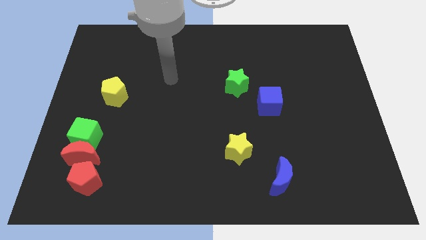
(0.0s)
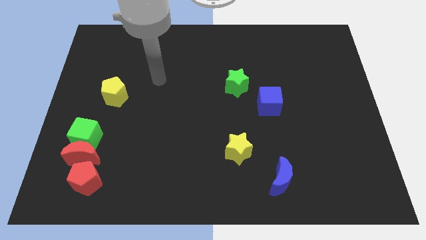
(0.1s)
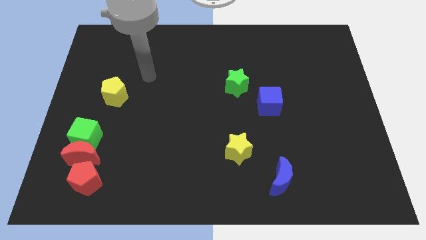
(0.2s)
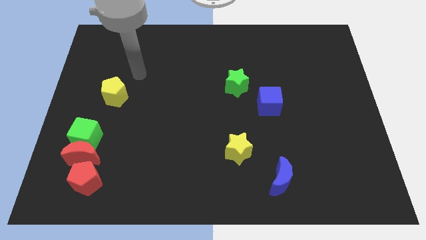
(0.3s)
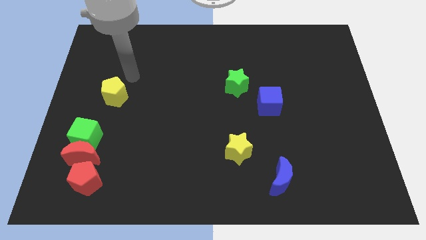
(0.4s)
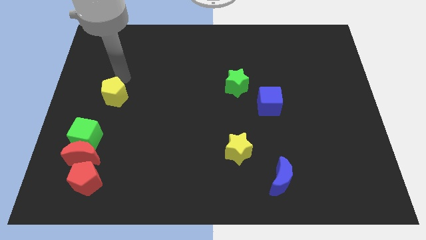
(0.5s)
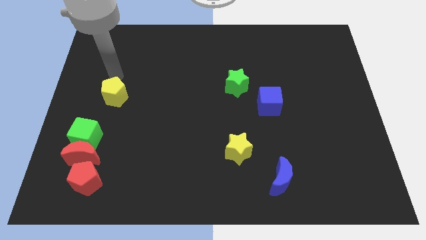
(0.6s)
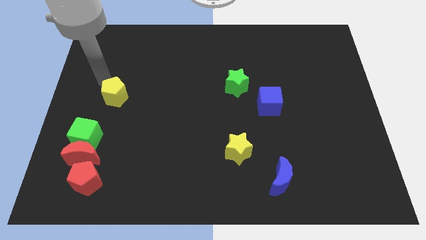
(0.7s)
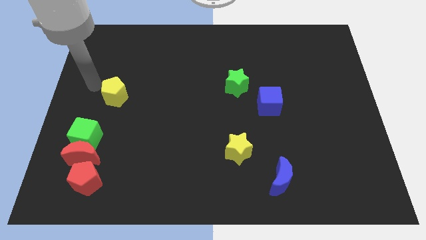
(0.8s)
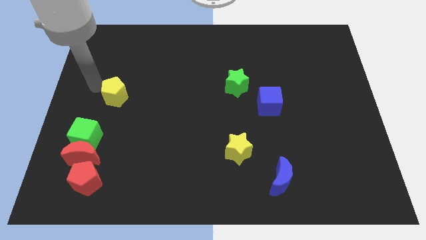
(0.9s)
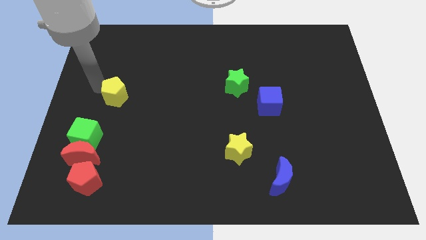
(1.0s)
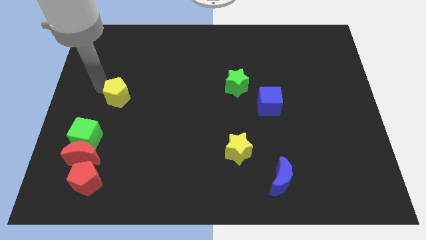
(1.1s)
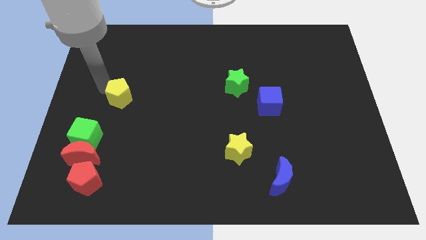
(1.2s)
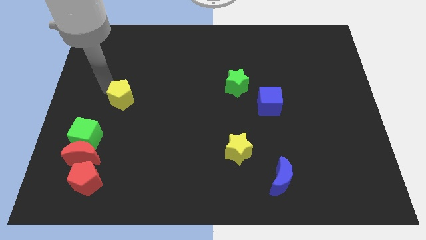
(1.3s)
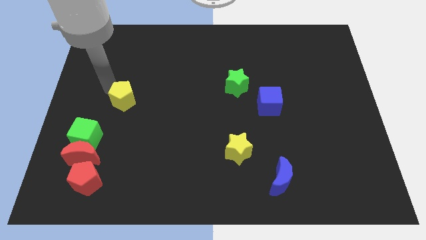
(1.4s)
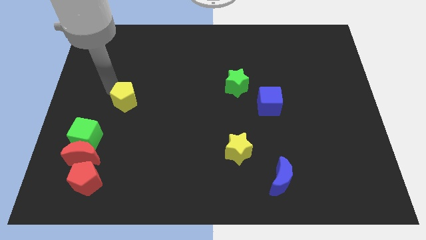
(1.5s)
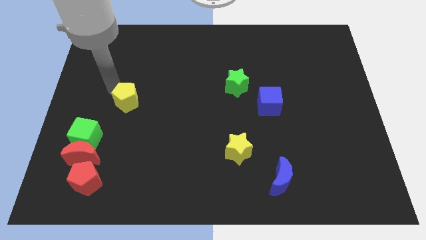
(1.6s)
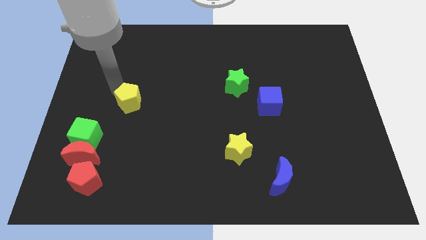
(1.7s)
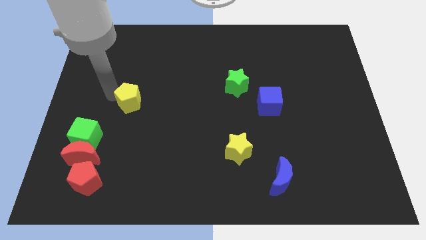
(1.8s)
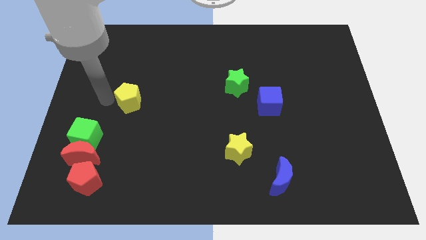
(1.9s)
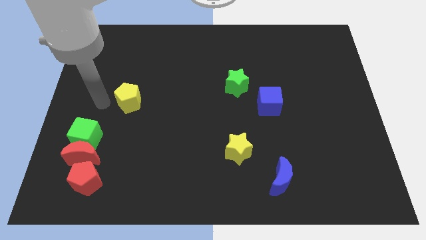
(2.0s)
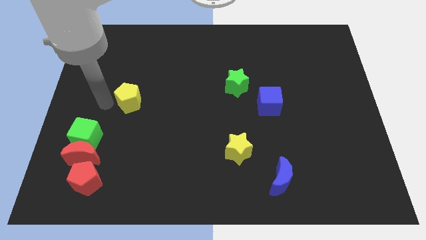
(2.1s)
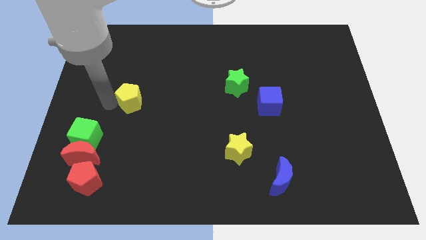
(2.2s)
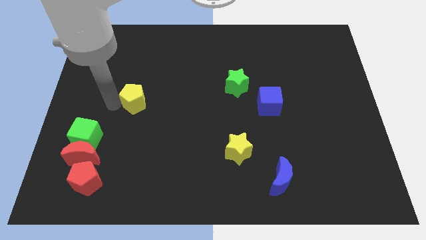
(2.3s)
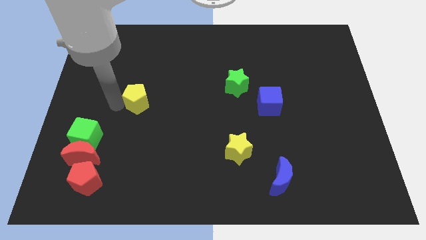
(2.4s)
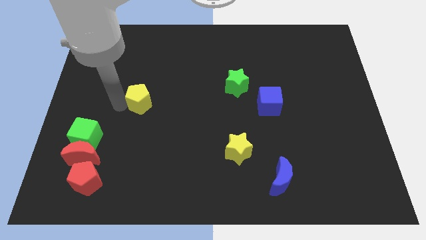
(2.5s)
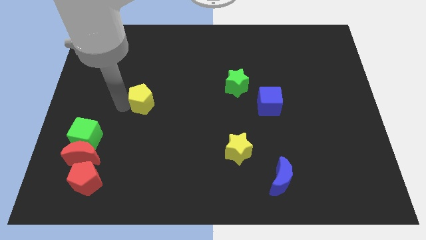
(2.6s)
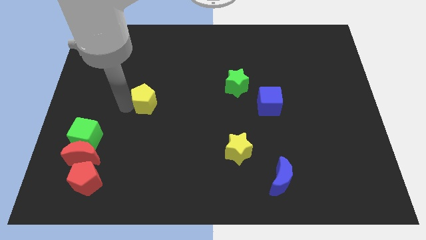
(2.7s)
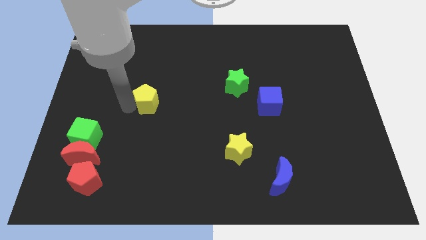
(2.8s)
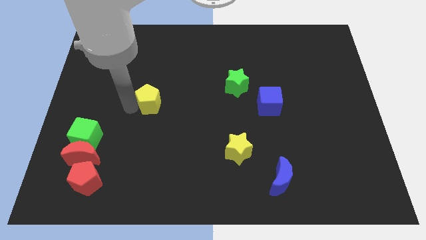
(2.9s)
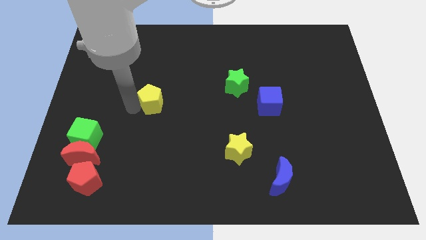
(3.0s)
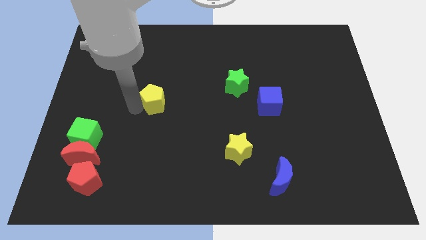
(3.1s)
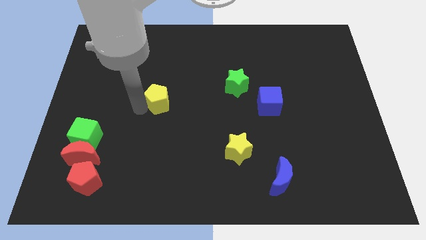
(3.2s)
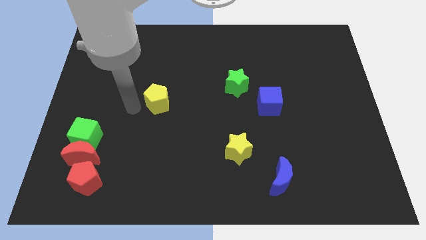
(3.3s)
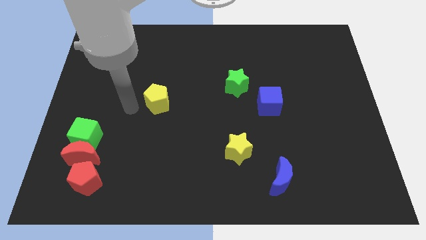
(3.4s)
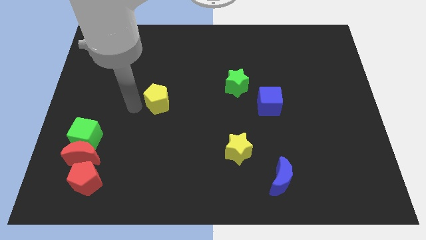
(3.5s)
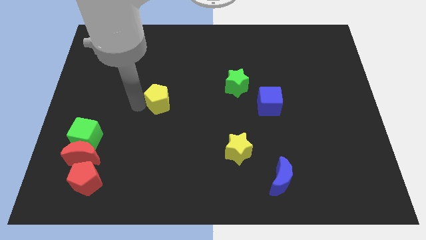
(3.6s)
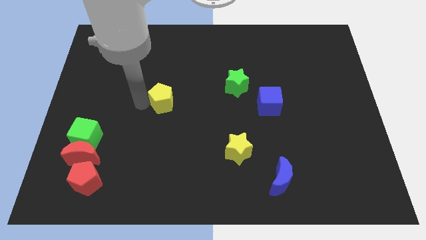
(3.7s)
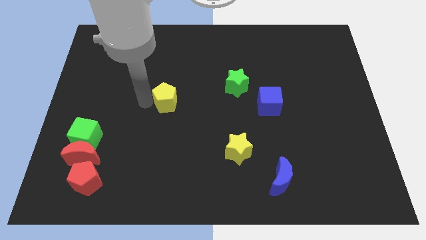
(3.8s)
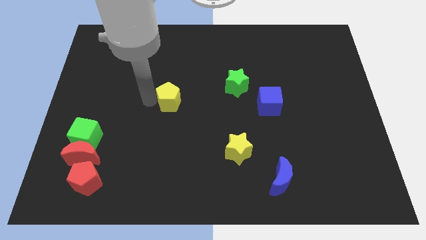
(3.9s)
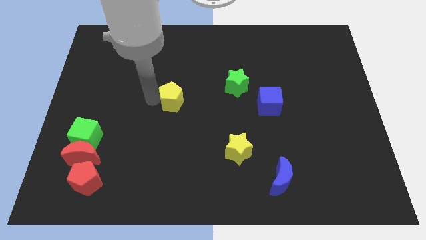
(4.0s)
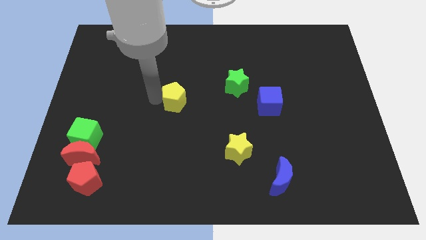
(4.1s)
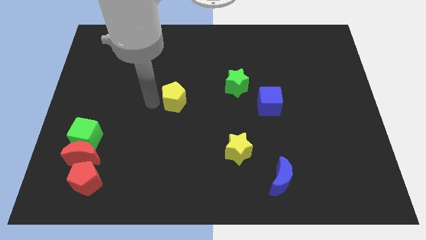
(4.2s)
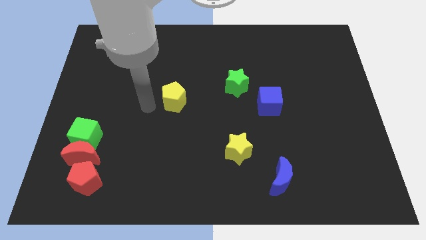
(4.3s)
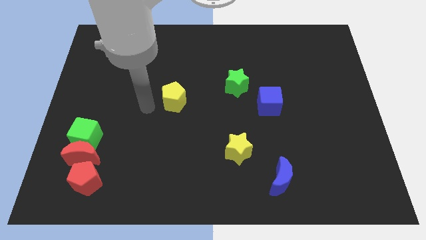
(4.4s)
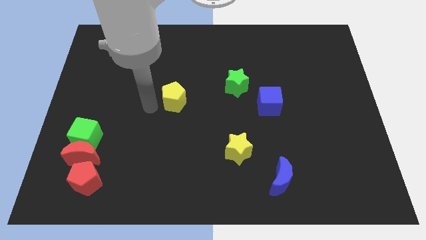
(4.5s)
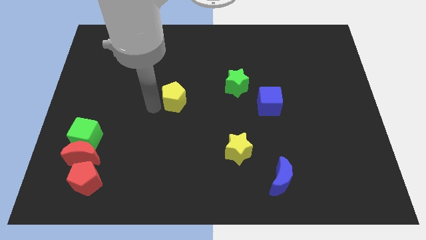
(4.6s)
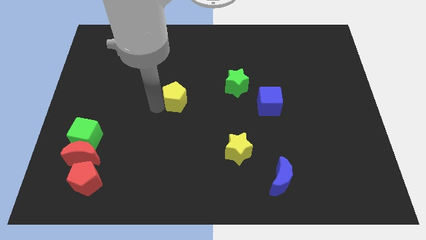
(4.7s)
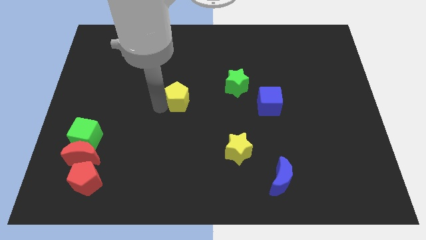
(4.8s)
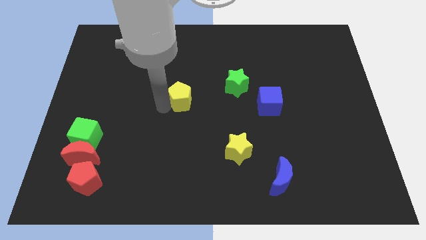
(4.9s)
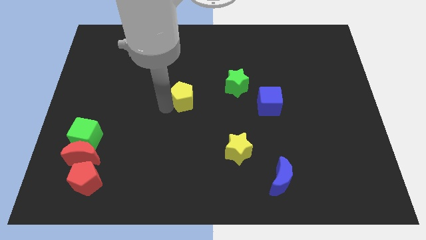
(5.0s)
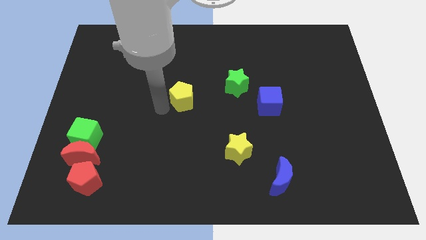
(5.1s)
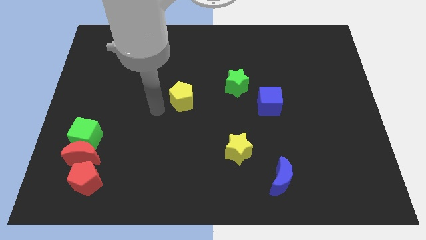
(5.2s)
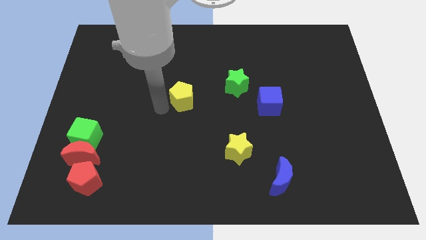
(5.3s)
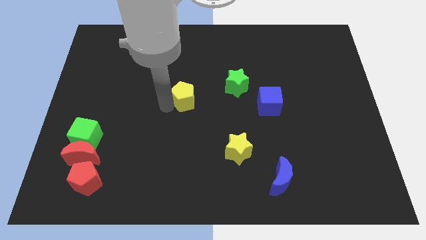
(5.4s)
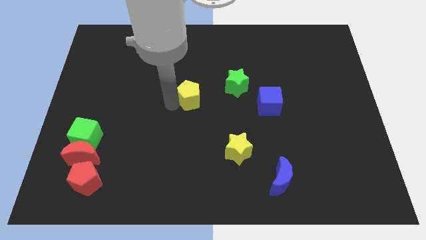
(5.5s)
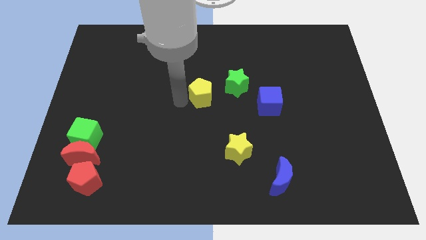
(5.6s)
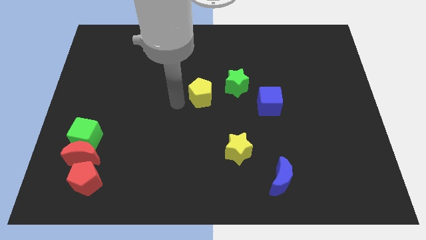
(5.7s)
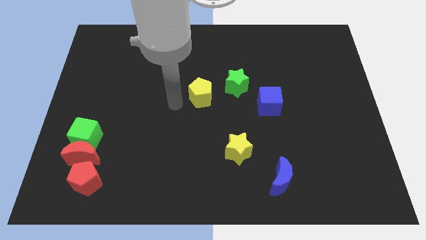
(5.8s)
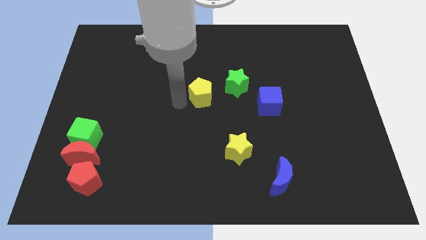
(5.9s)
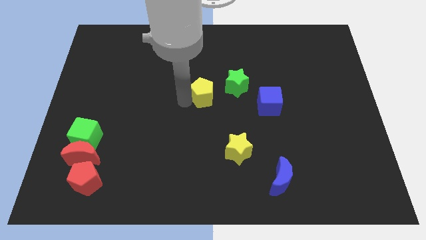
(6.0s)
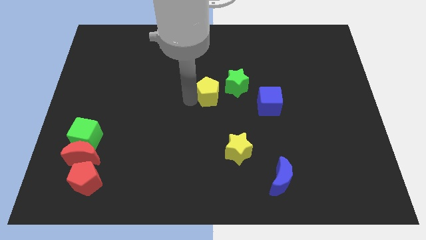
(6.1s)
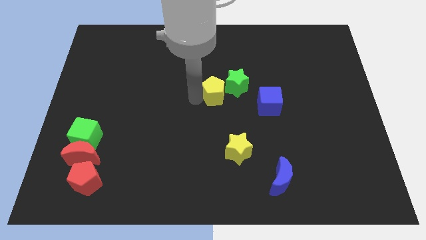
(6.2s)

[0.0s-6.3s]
put the yellow pentagon towards the green star
